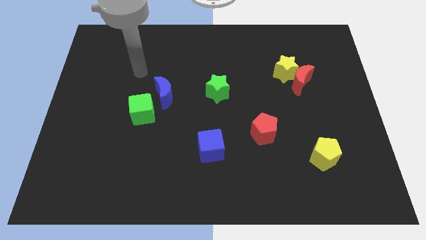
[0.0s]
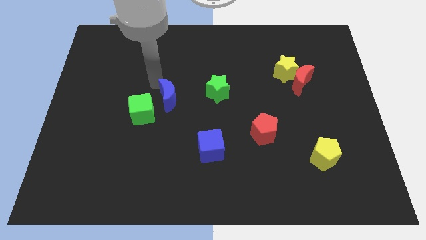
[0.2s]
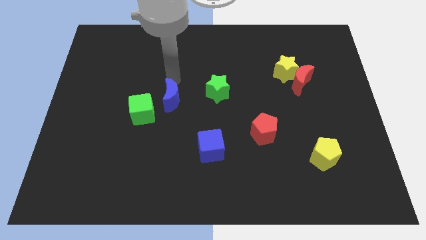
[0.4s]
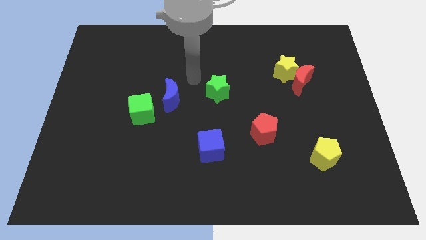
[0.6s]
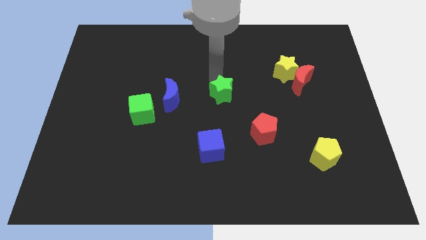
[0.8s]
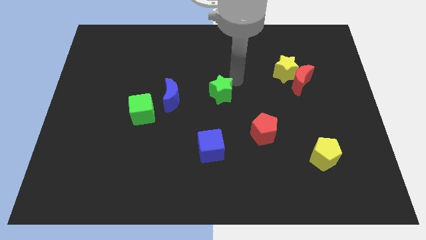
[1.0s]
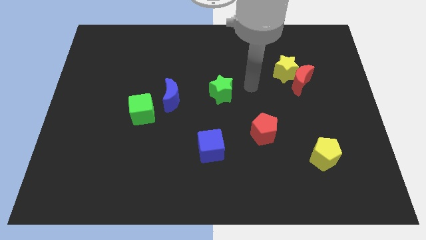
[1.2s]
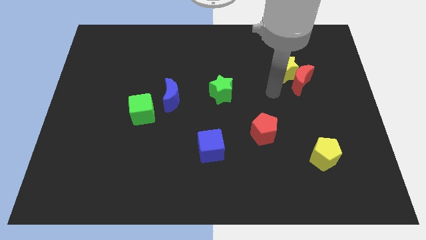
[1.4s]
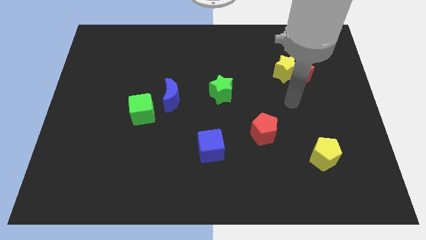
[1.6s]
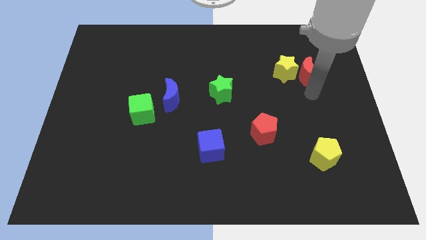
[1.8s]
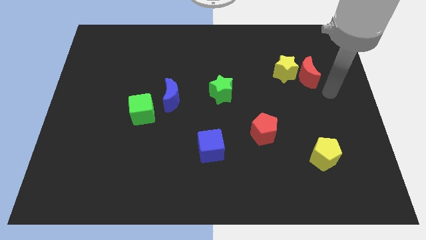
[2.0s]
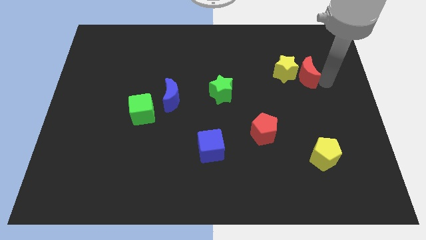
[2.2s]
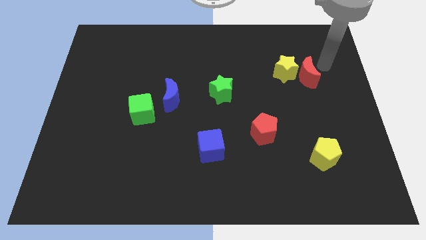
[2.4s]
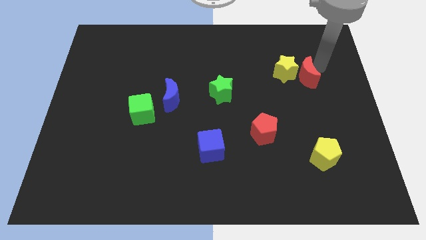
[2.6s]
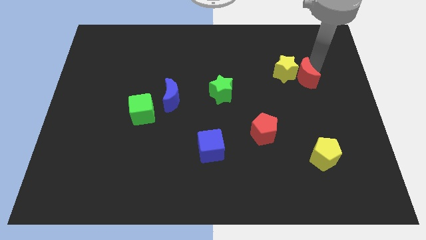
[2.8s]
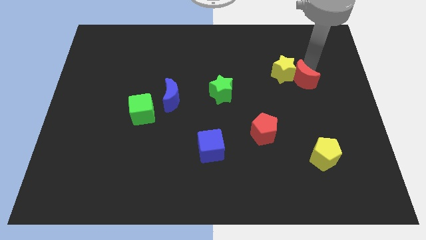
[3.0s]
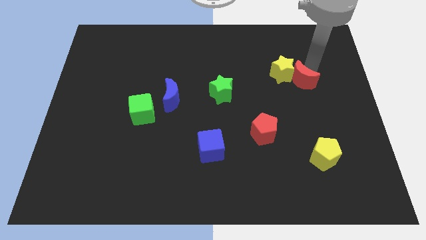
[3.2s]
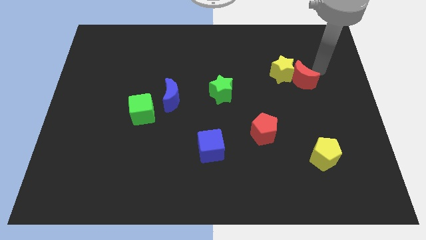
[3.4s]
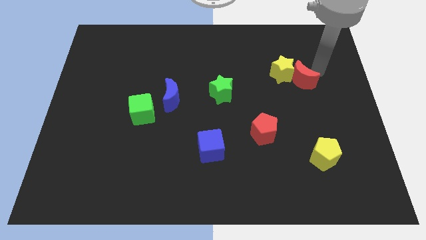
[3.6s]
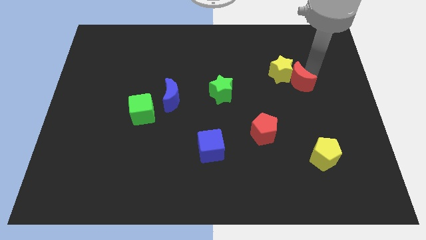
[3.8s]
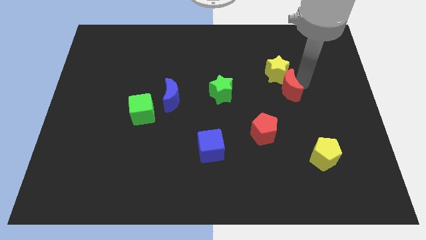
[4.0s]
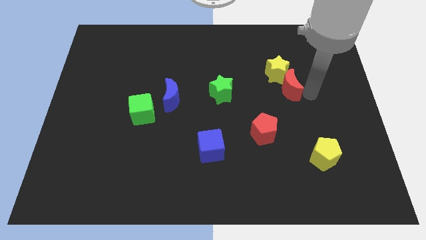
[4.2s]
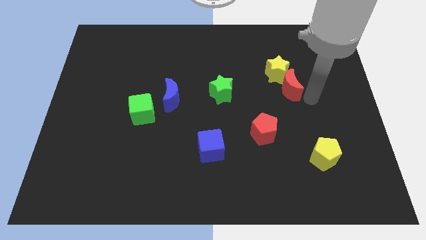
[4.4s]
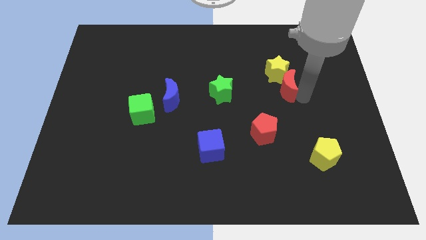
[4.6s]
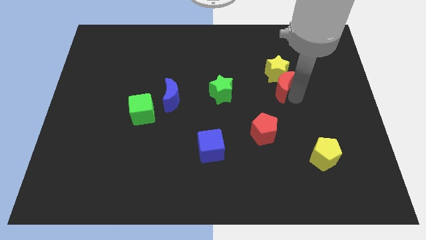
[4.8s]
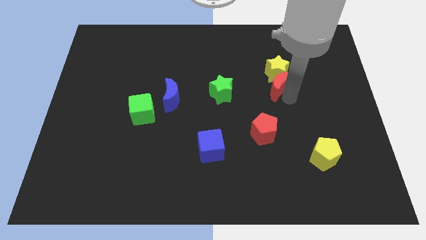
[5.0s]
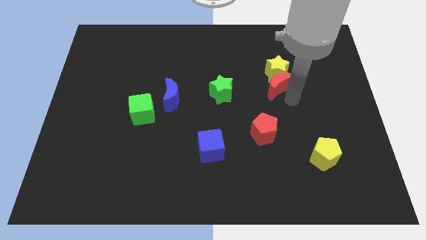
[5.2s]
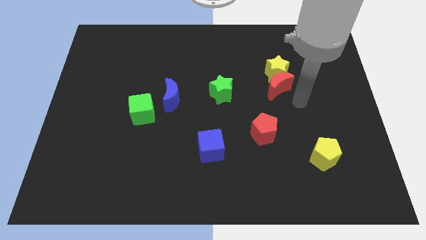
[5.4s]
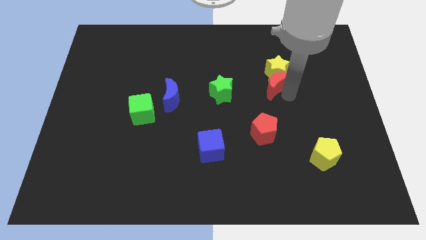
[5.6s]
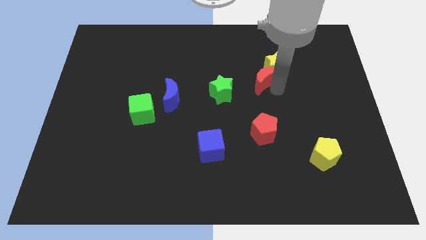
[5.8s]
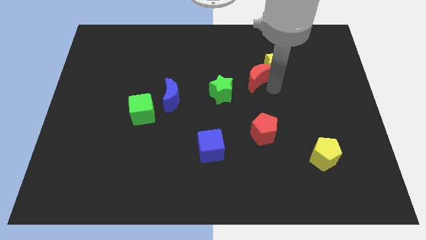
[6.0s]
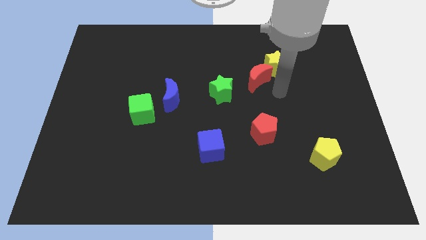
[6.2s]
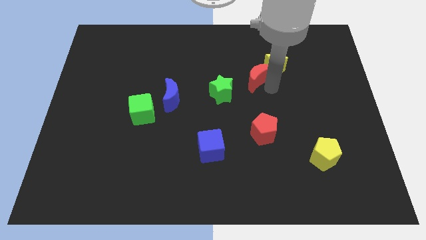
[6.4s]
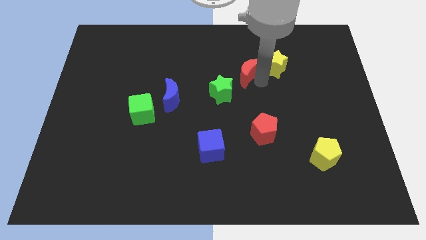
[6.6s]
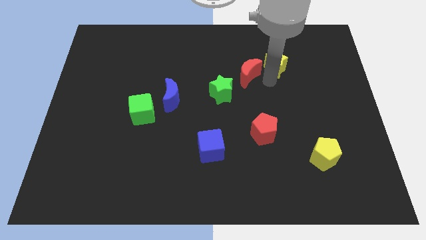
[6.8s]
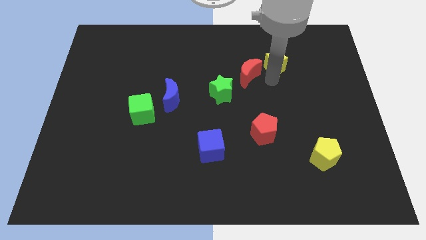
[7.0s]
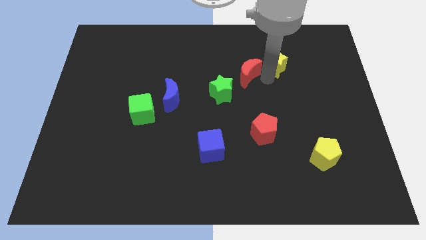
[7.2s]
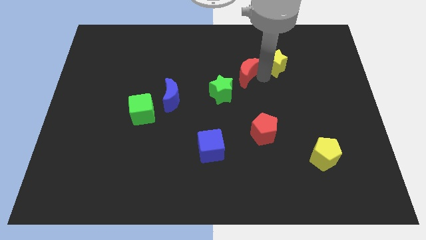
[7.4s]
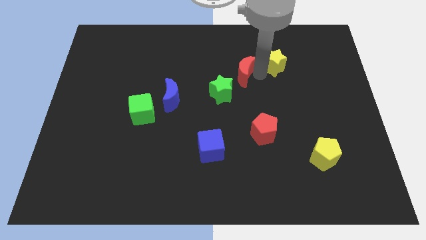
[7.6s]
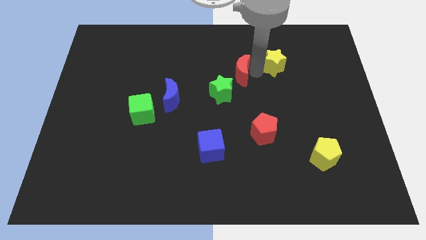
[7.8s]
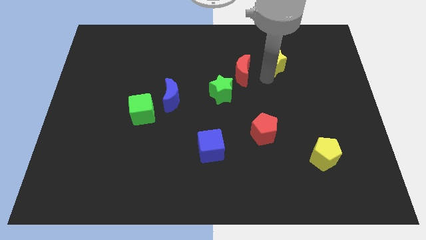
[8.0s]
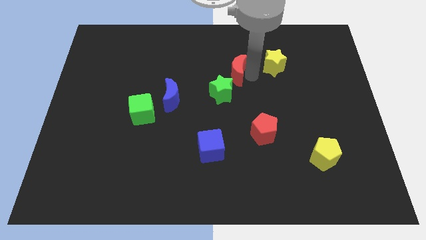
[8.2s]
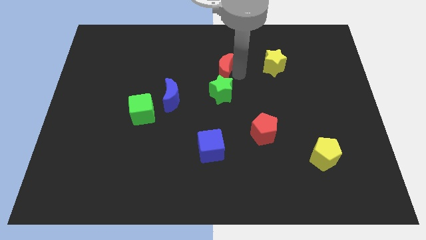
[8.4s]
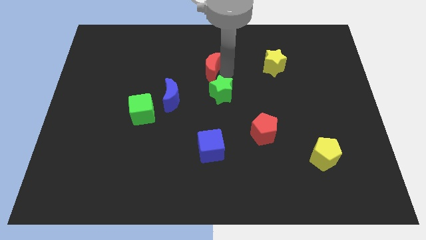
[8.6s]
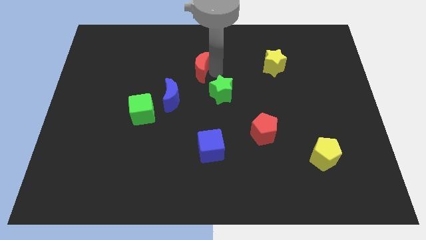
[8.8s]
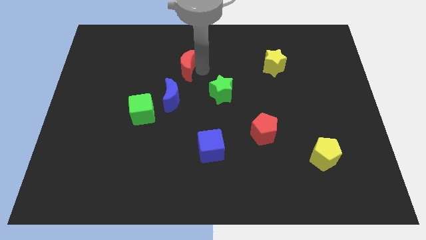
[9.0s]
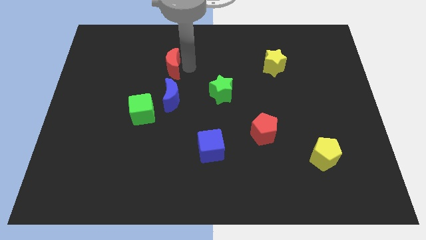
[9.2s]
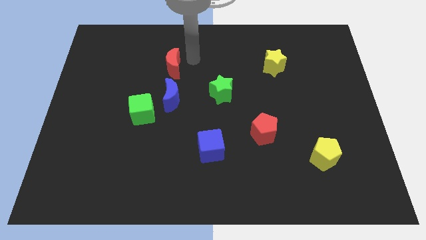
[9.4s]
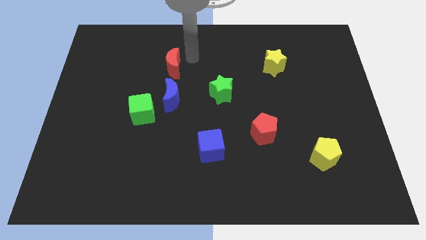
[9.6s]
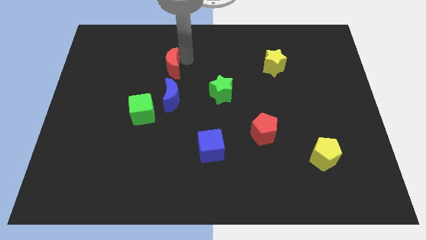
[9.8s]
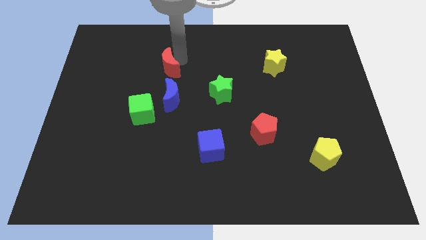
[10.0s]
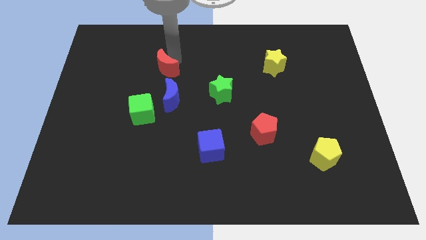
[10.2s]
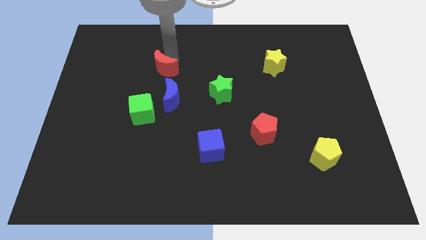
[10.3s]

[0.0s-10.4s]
push the red moon above the green cube

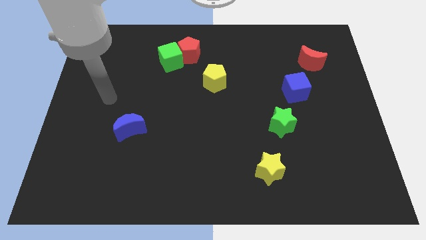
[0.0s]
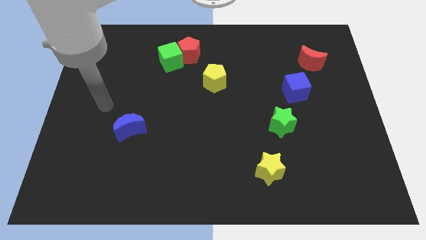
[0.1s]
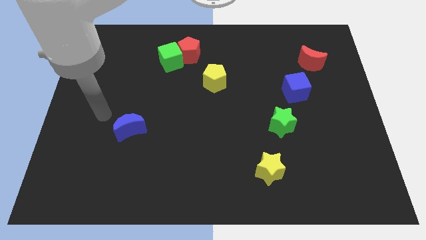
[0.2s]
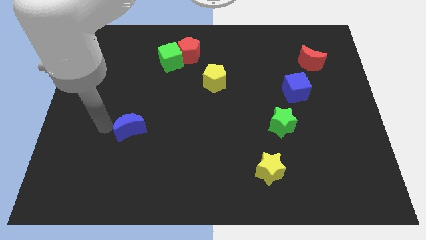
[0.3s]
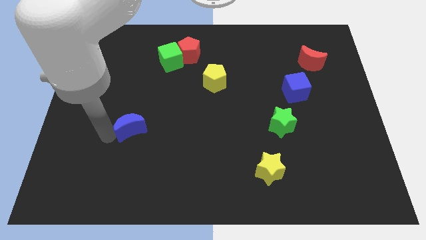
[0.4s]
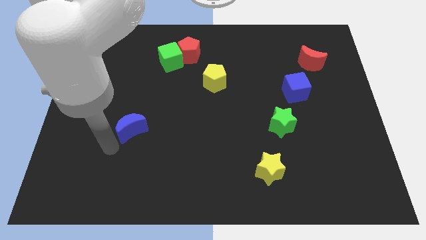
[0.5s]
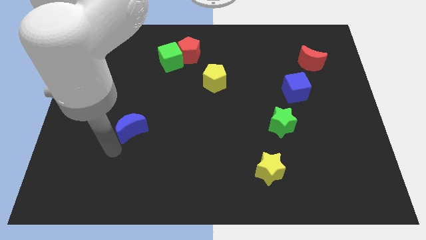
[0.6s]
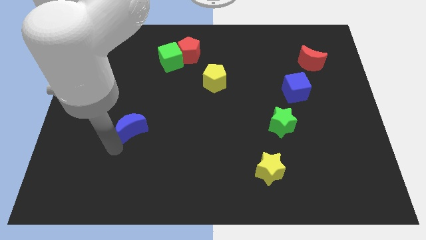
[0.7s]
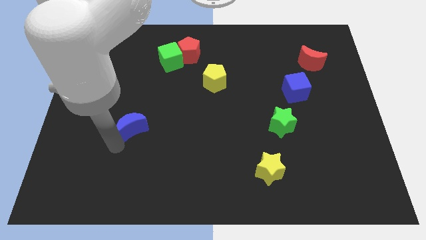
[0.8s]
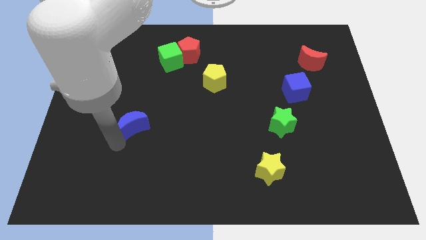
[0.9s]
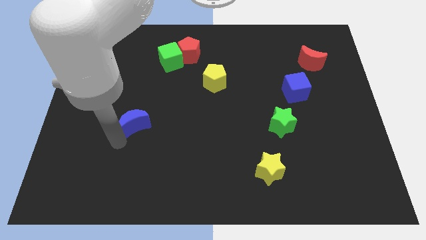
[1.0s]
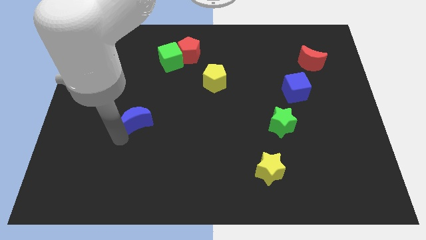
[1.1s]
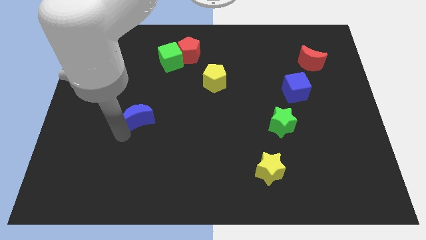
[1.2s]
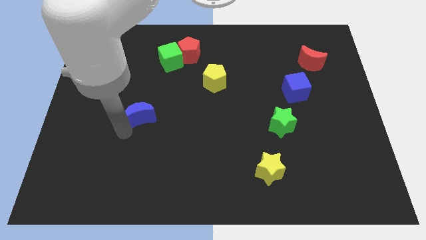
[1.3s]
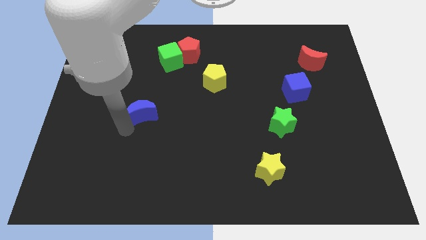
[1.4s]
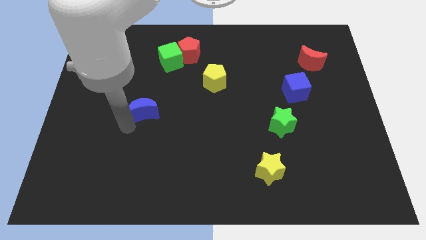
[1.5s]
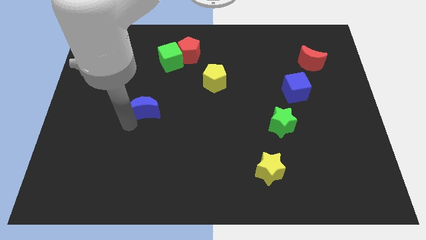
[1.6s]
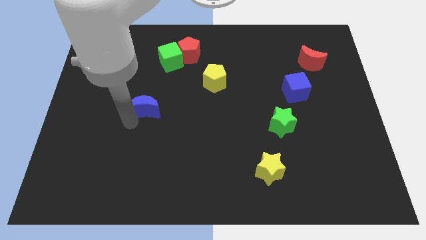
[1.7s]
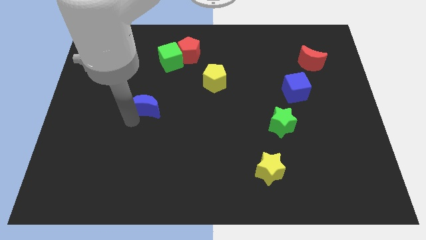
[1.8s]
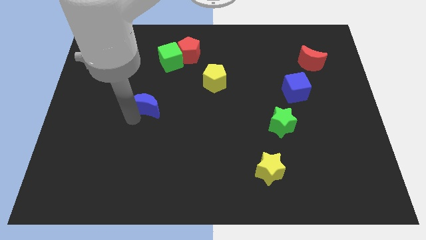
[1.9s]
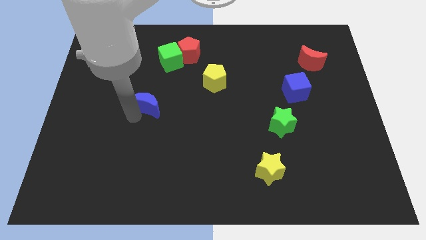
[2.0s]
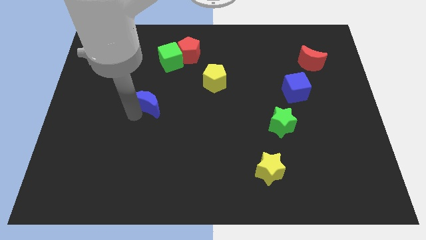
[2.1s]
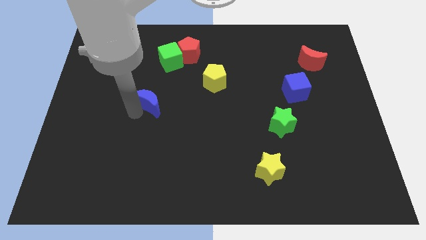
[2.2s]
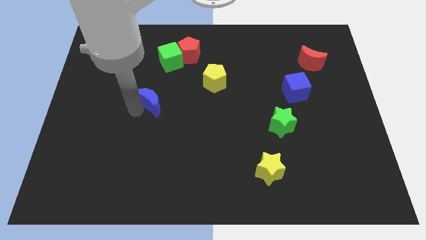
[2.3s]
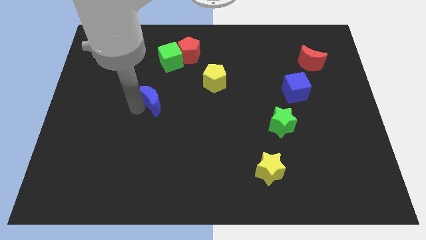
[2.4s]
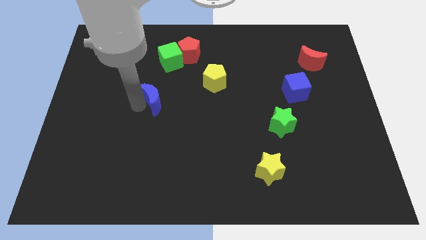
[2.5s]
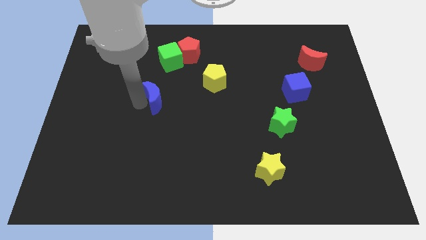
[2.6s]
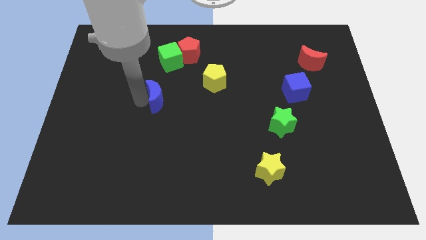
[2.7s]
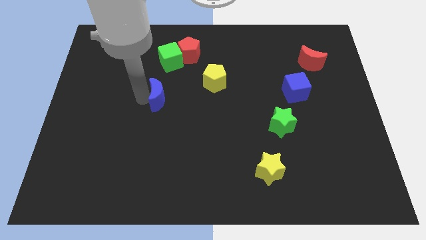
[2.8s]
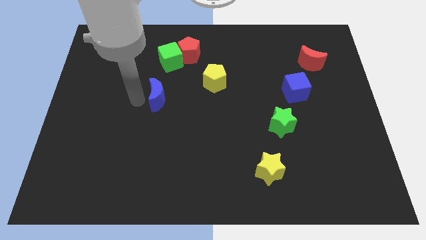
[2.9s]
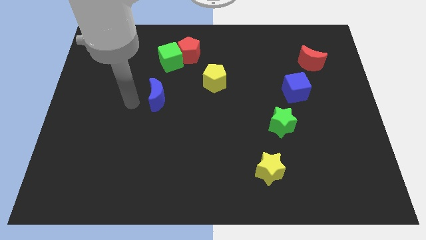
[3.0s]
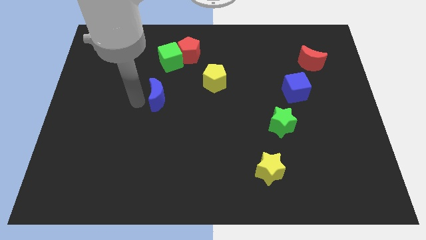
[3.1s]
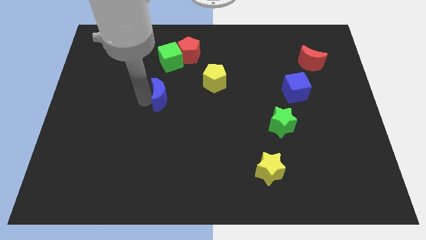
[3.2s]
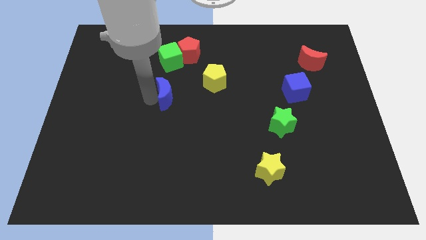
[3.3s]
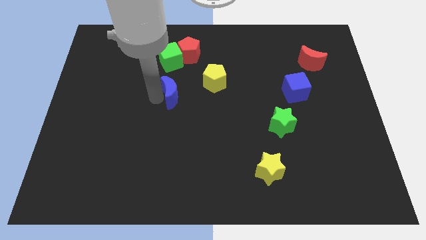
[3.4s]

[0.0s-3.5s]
put the blue moon below the red pentagon
